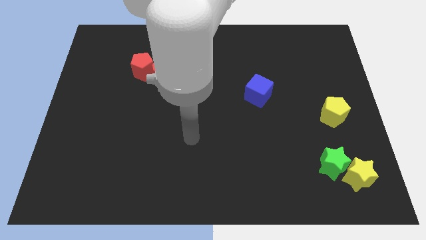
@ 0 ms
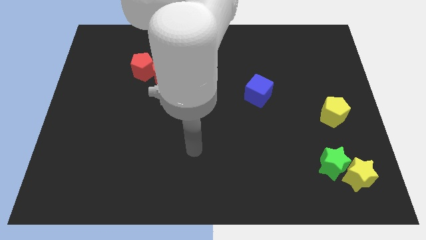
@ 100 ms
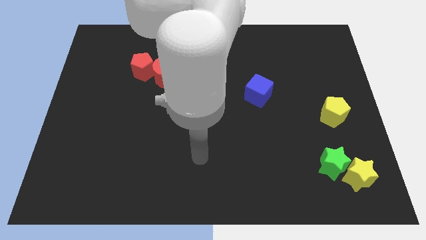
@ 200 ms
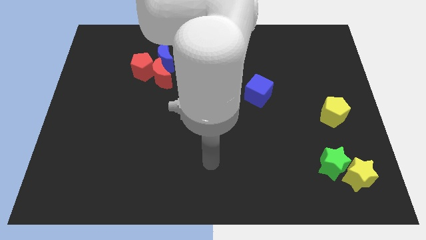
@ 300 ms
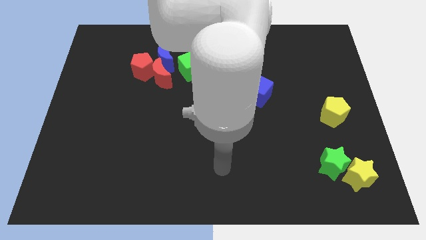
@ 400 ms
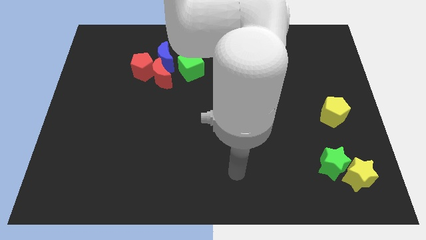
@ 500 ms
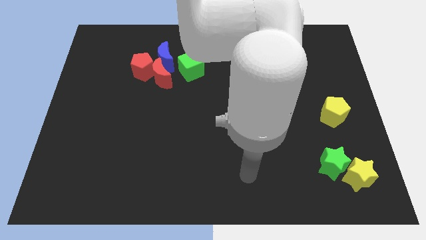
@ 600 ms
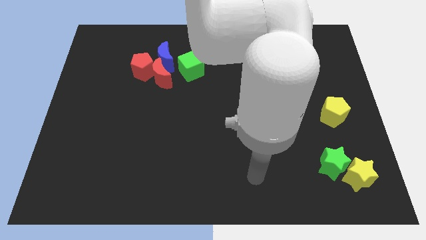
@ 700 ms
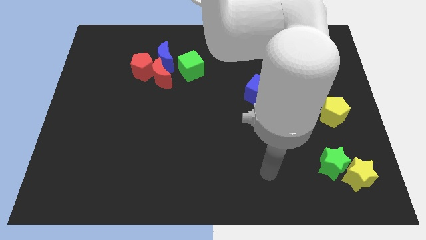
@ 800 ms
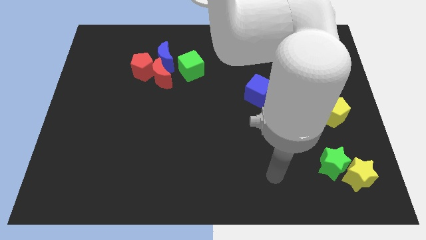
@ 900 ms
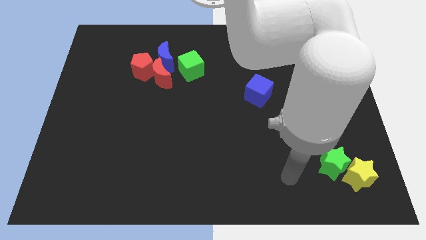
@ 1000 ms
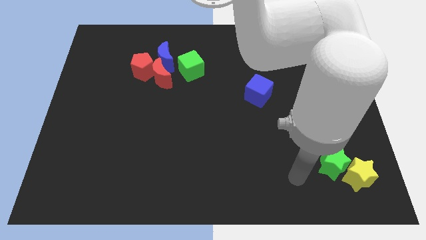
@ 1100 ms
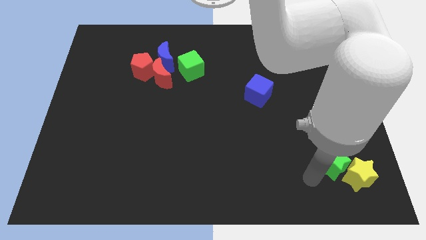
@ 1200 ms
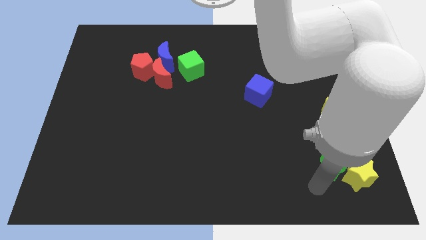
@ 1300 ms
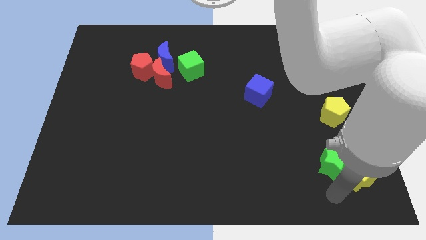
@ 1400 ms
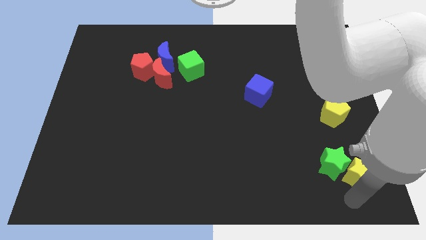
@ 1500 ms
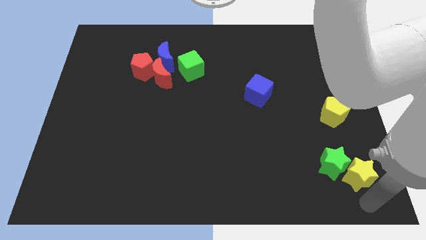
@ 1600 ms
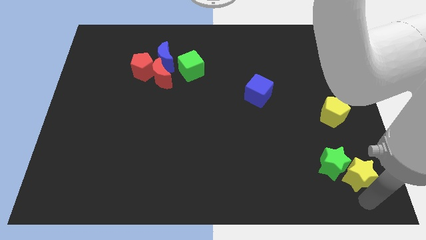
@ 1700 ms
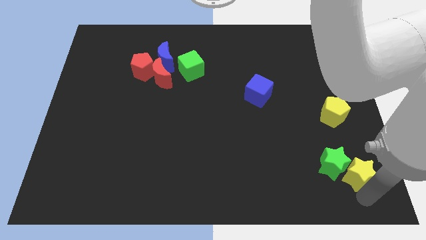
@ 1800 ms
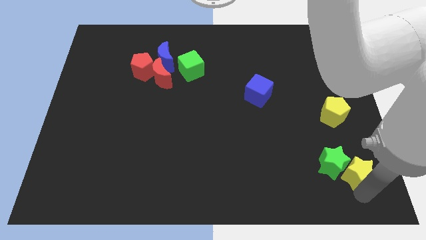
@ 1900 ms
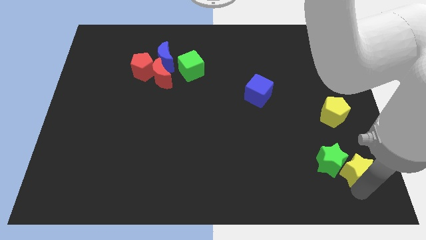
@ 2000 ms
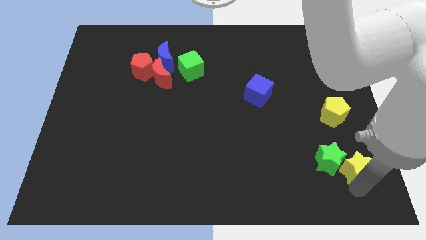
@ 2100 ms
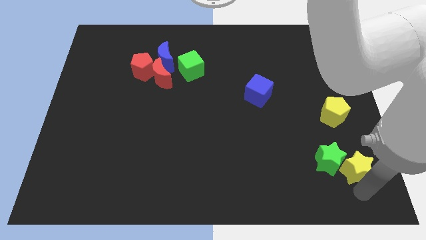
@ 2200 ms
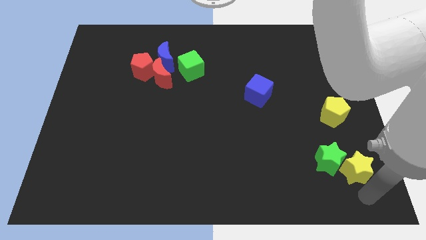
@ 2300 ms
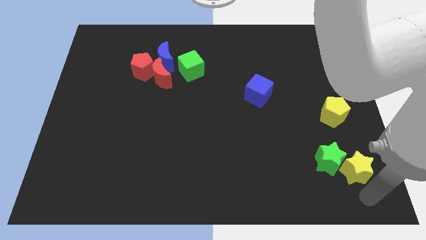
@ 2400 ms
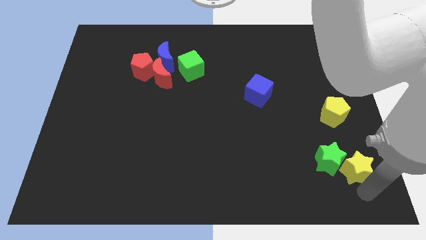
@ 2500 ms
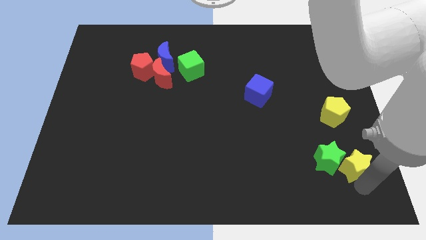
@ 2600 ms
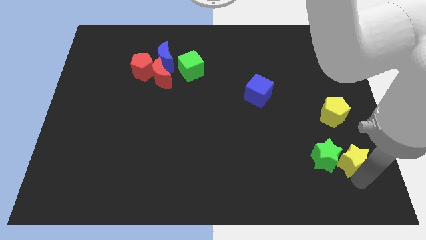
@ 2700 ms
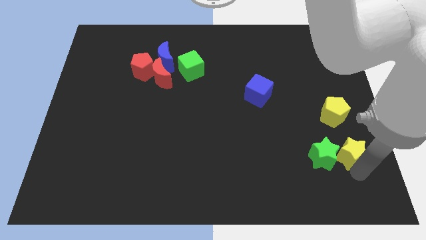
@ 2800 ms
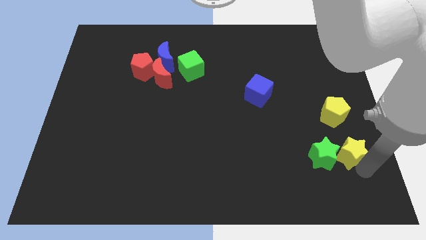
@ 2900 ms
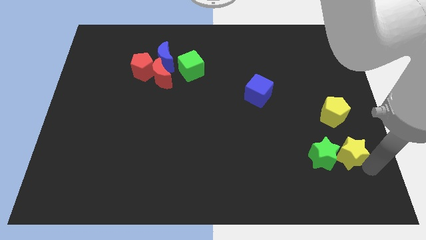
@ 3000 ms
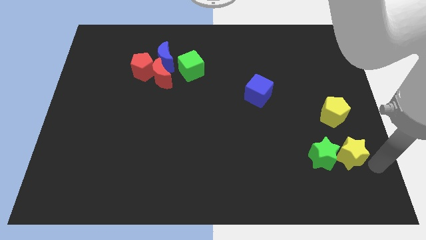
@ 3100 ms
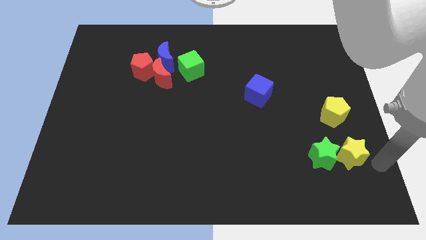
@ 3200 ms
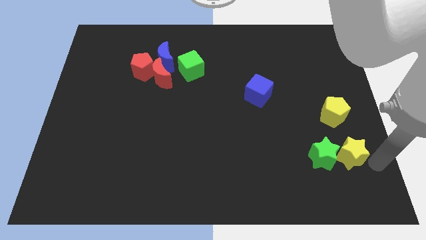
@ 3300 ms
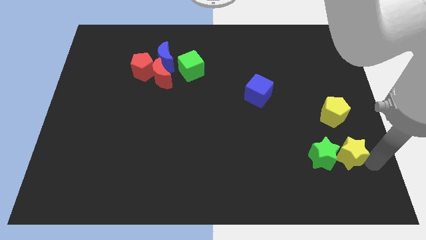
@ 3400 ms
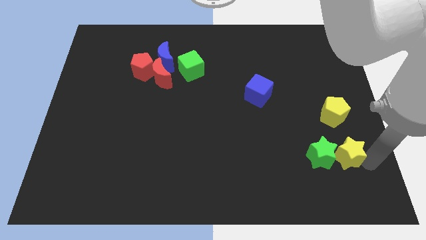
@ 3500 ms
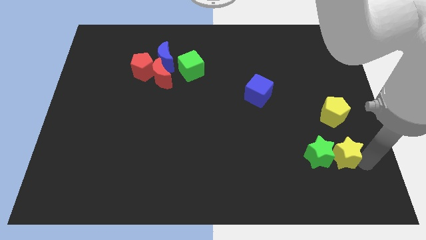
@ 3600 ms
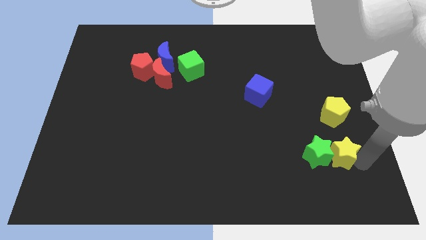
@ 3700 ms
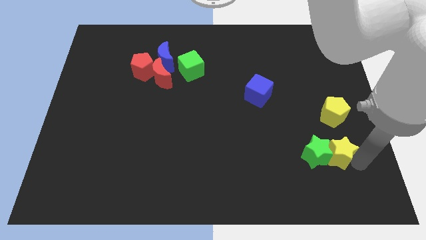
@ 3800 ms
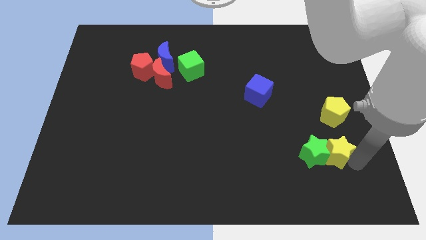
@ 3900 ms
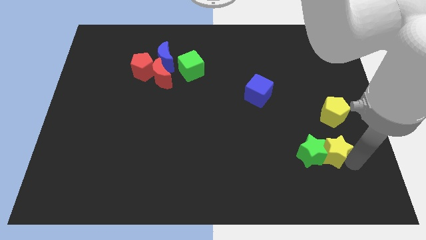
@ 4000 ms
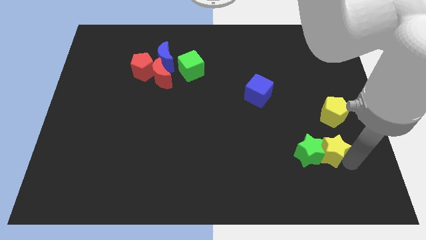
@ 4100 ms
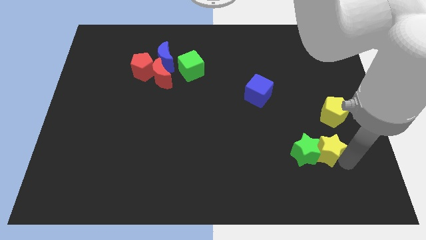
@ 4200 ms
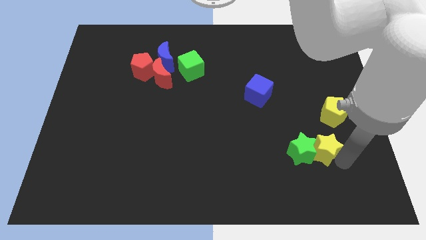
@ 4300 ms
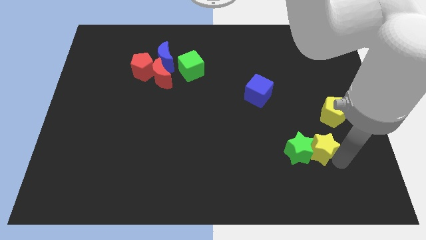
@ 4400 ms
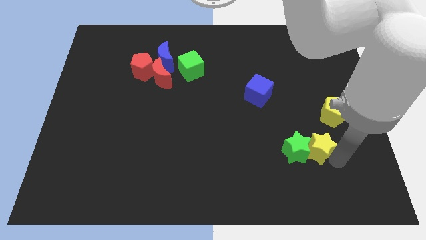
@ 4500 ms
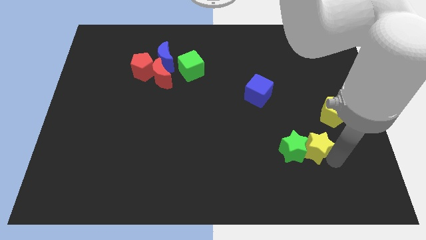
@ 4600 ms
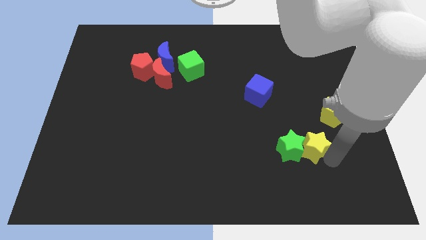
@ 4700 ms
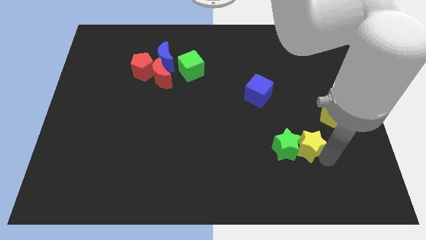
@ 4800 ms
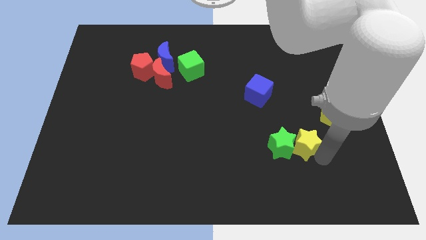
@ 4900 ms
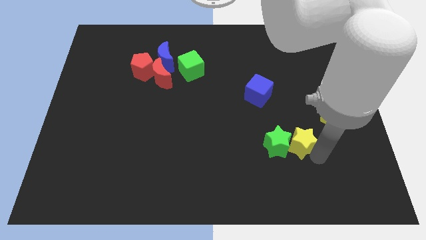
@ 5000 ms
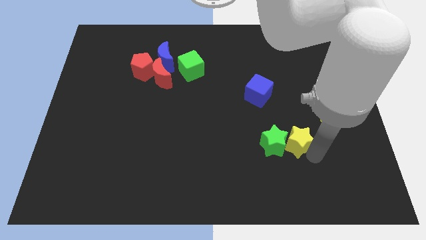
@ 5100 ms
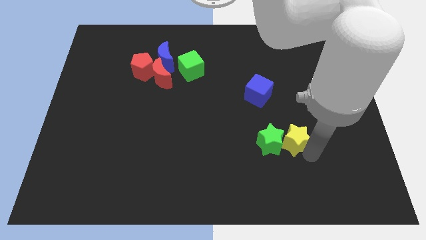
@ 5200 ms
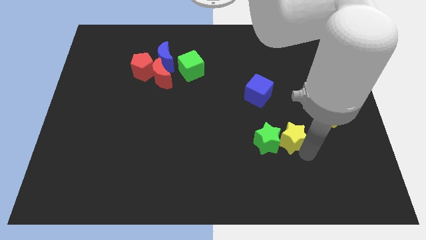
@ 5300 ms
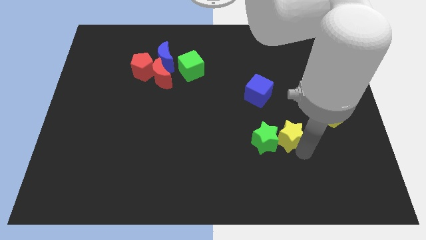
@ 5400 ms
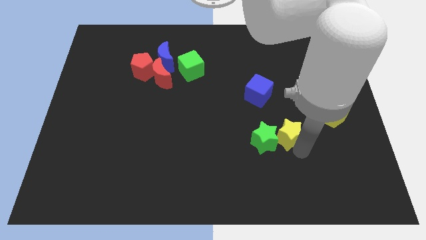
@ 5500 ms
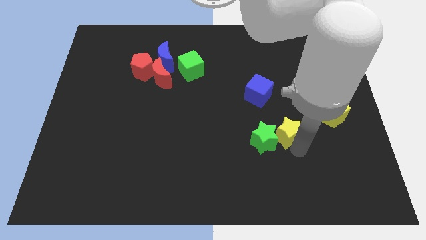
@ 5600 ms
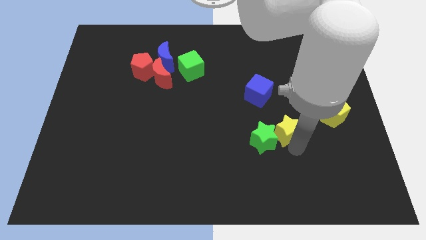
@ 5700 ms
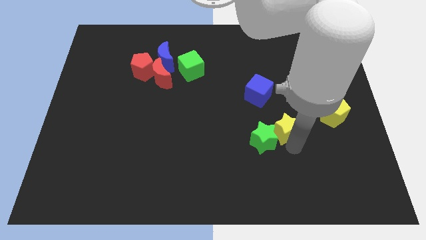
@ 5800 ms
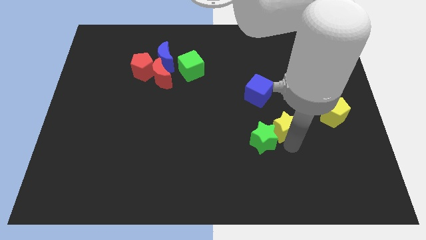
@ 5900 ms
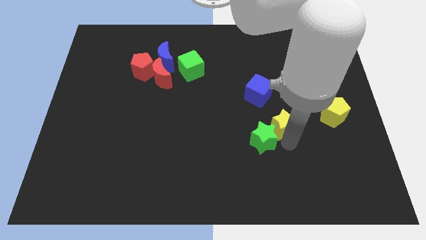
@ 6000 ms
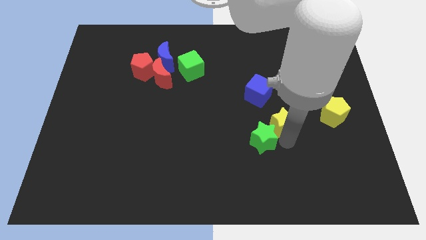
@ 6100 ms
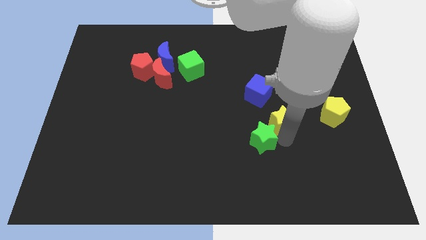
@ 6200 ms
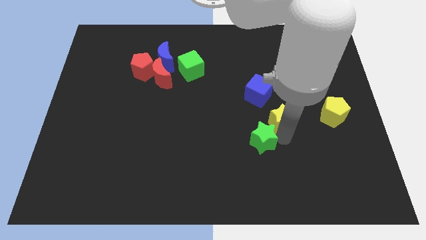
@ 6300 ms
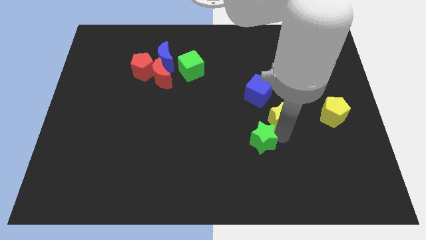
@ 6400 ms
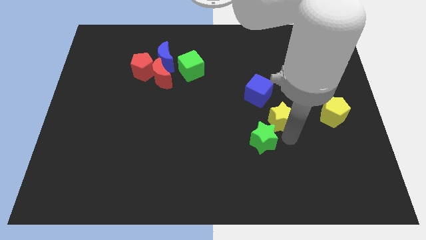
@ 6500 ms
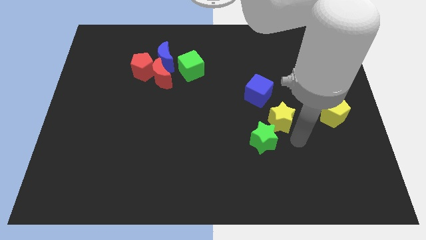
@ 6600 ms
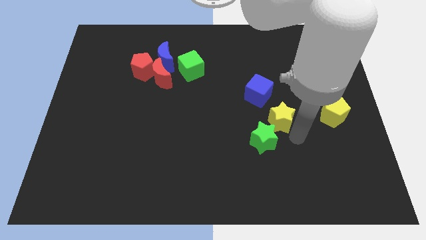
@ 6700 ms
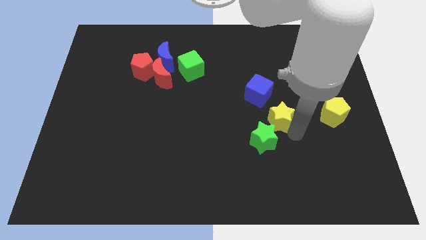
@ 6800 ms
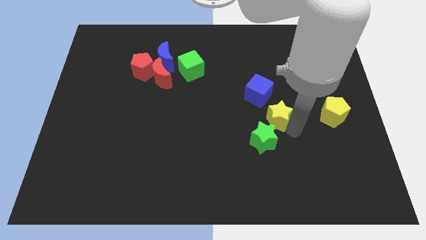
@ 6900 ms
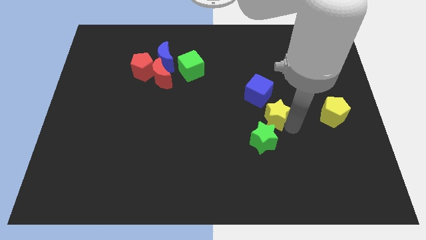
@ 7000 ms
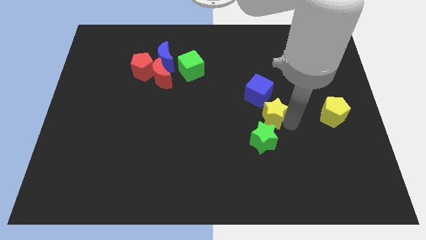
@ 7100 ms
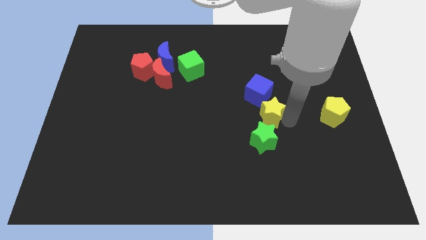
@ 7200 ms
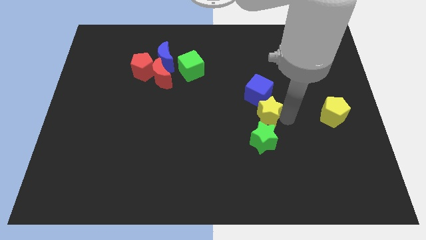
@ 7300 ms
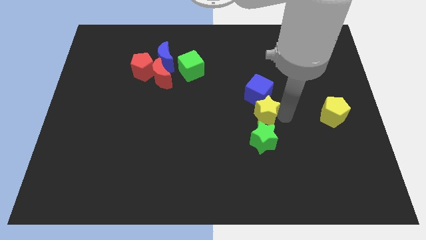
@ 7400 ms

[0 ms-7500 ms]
slide the yellow star to the blue cube
